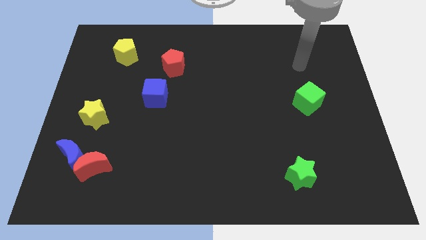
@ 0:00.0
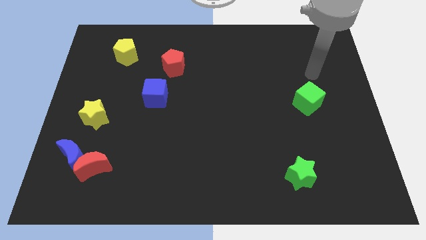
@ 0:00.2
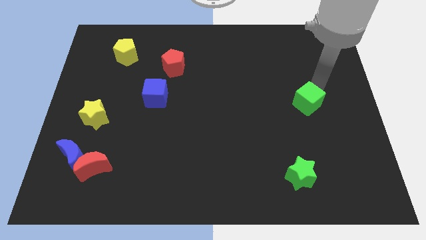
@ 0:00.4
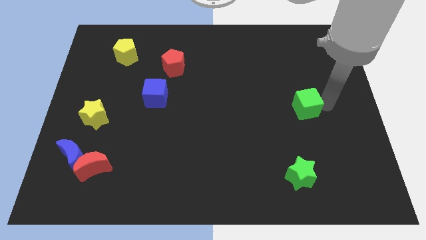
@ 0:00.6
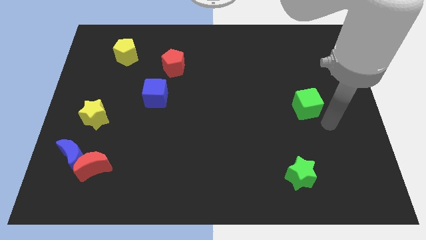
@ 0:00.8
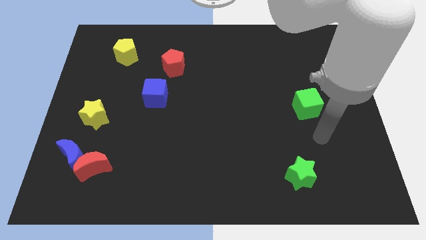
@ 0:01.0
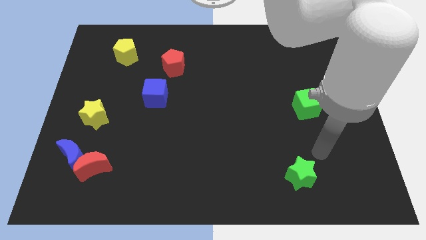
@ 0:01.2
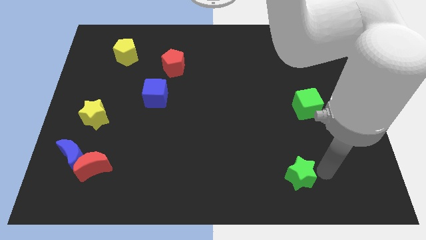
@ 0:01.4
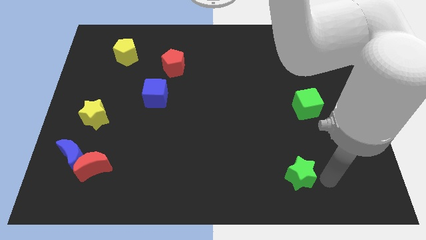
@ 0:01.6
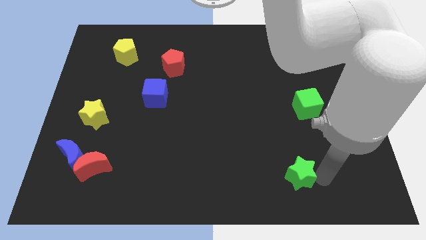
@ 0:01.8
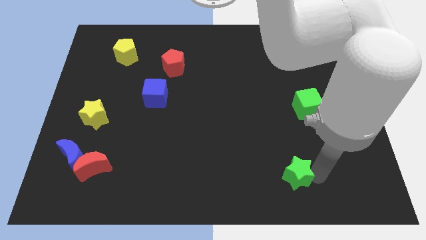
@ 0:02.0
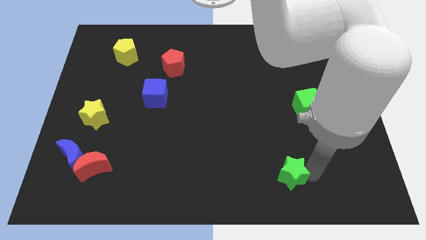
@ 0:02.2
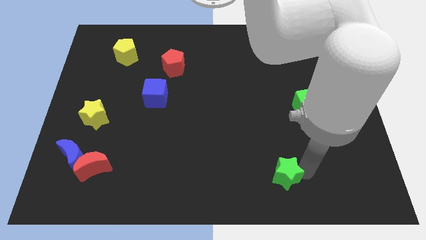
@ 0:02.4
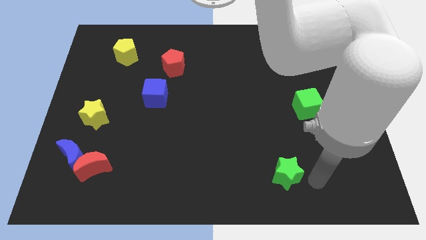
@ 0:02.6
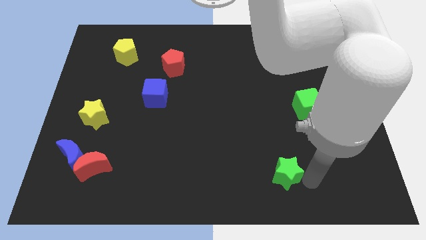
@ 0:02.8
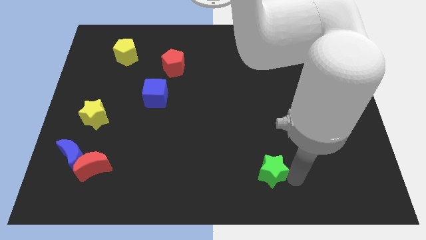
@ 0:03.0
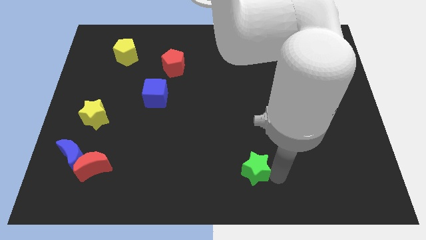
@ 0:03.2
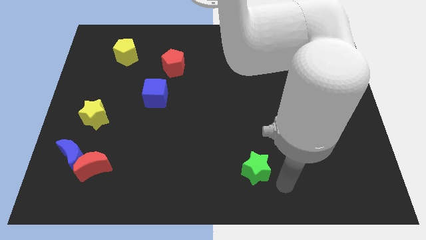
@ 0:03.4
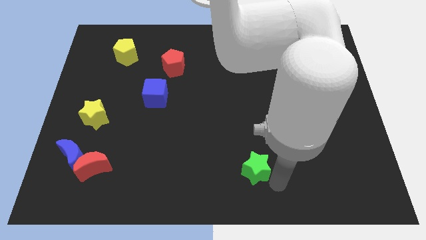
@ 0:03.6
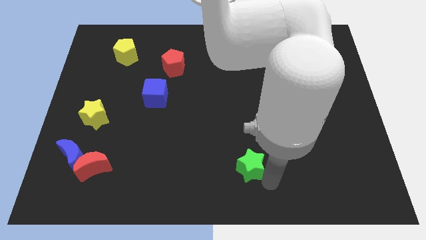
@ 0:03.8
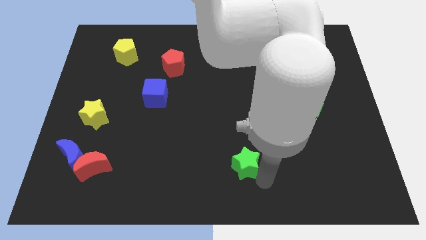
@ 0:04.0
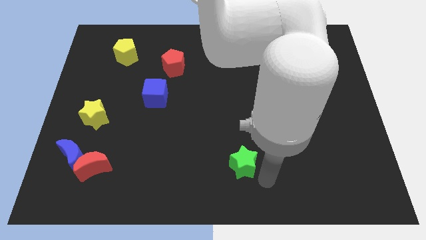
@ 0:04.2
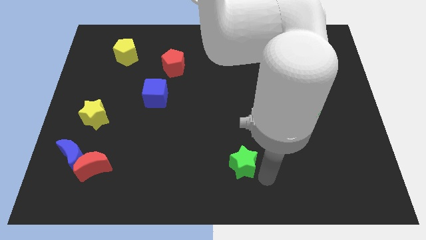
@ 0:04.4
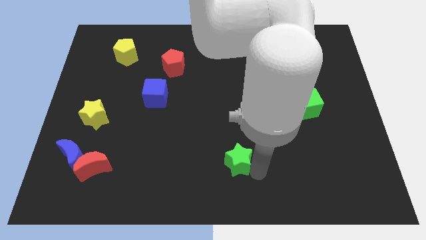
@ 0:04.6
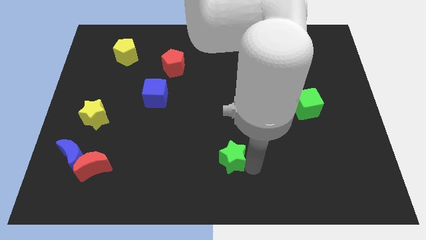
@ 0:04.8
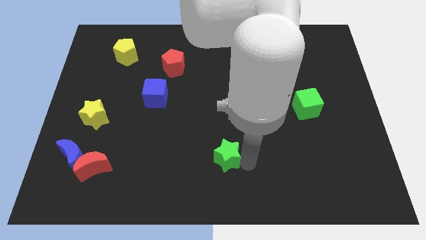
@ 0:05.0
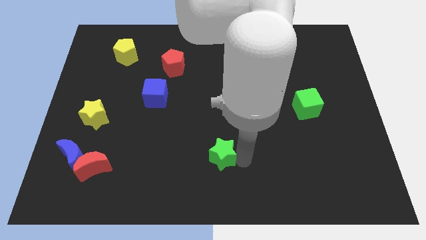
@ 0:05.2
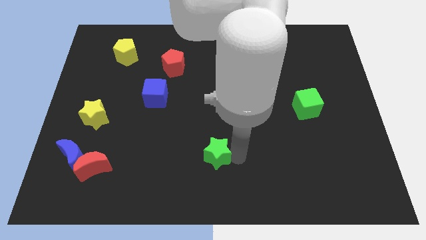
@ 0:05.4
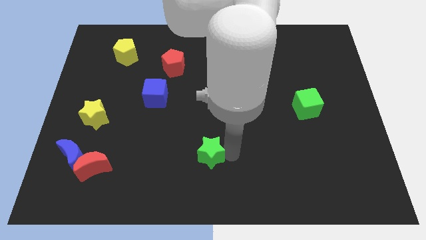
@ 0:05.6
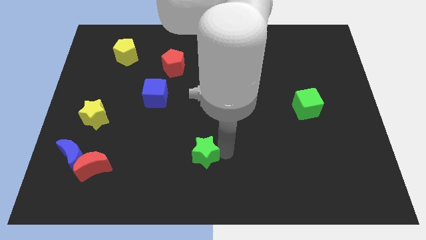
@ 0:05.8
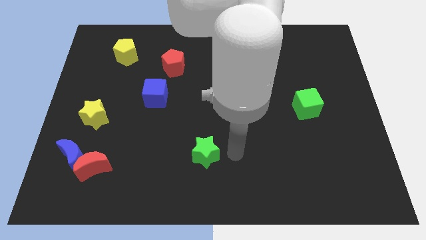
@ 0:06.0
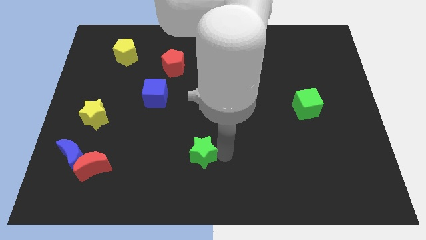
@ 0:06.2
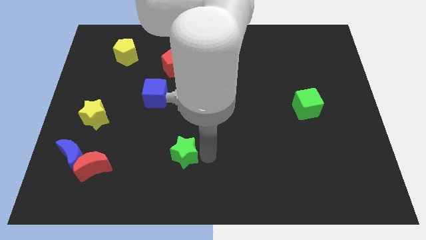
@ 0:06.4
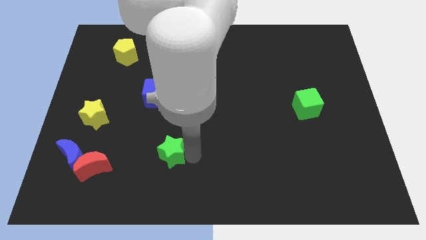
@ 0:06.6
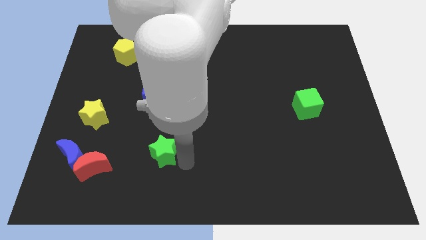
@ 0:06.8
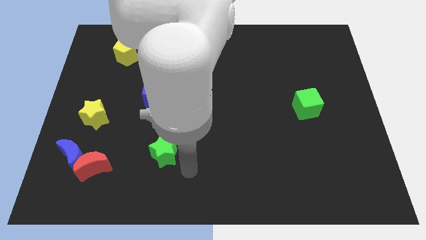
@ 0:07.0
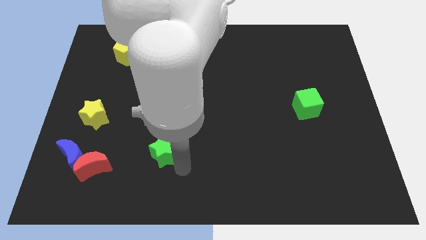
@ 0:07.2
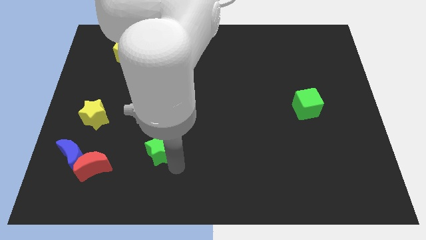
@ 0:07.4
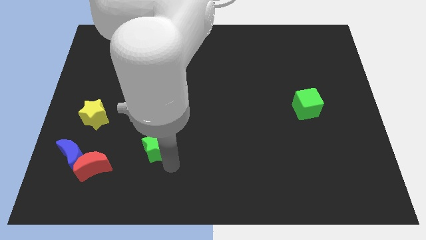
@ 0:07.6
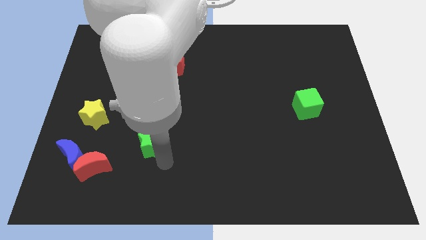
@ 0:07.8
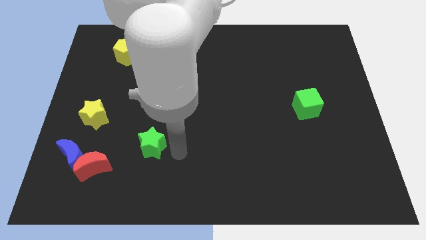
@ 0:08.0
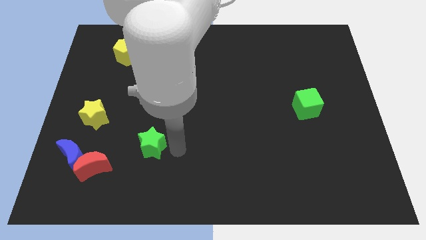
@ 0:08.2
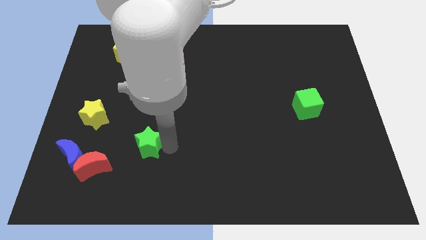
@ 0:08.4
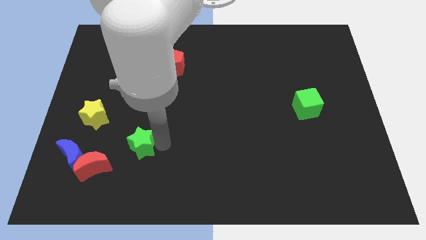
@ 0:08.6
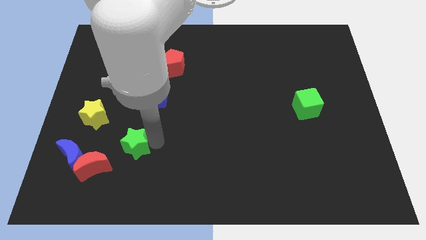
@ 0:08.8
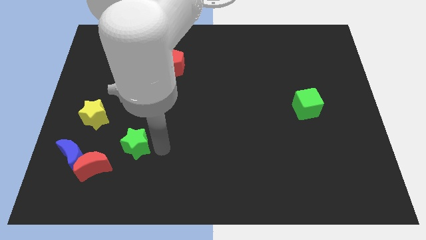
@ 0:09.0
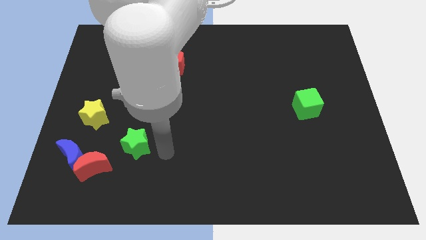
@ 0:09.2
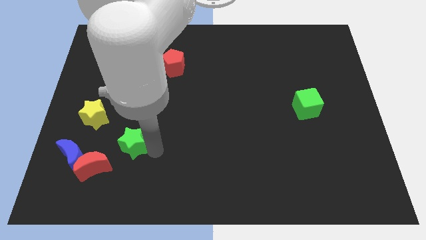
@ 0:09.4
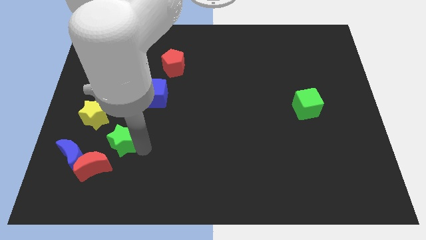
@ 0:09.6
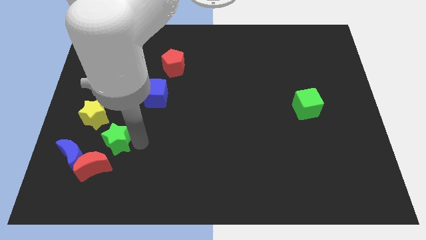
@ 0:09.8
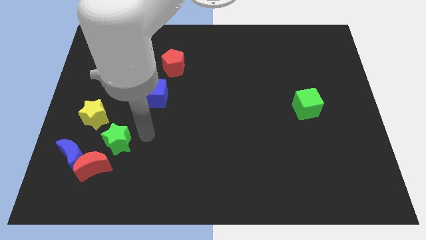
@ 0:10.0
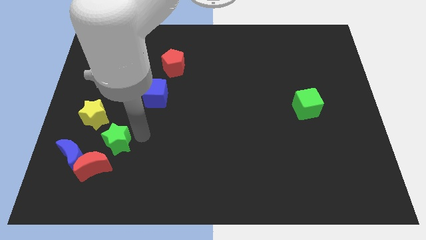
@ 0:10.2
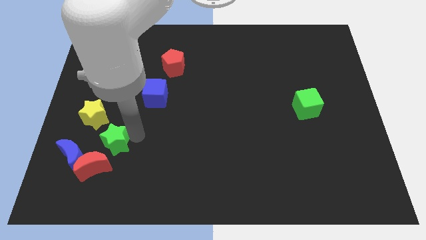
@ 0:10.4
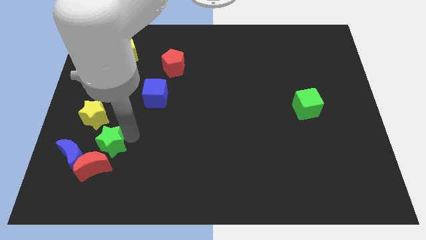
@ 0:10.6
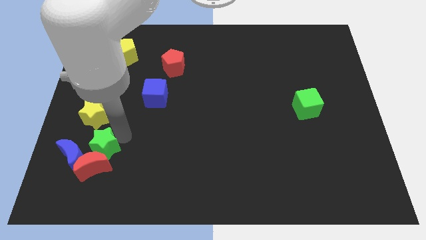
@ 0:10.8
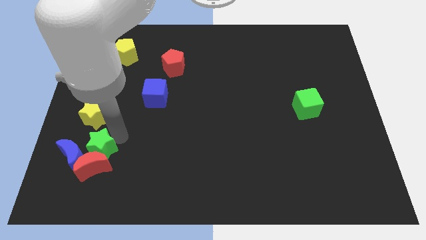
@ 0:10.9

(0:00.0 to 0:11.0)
put the green star close to the blue moon

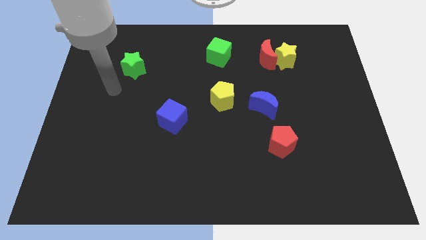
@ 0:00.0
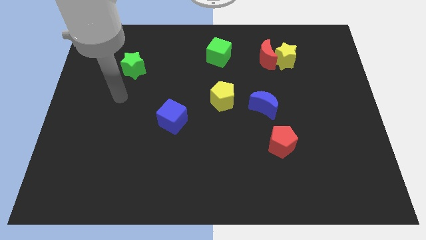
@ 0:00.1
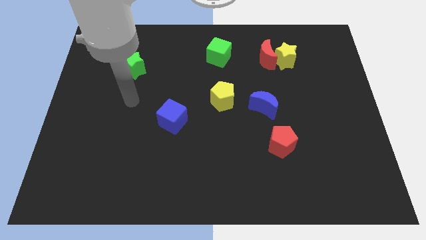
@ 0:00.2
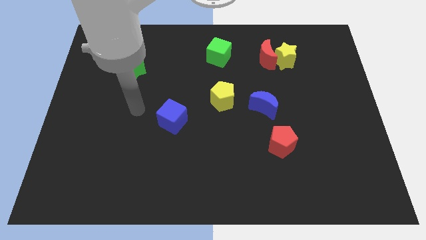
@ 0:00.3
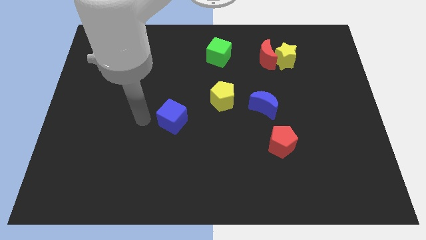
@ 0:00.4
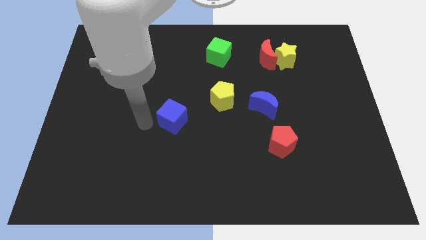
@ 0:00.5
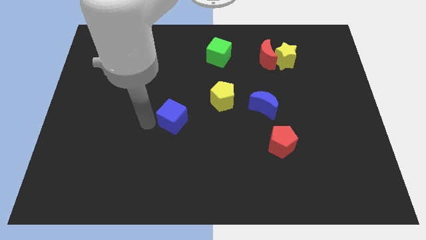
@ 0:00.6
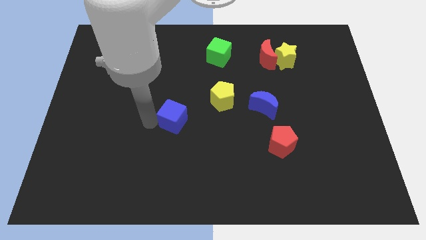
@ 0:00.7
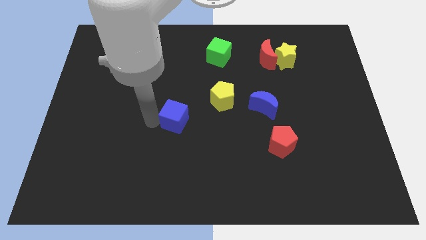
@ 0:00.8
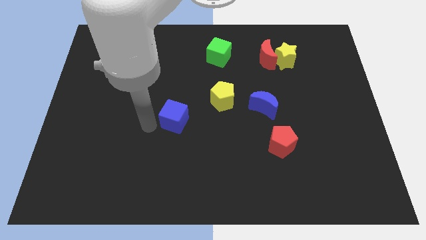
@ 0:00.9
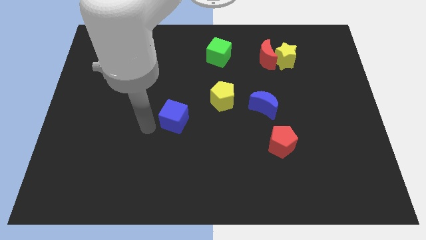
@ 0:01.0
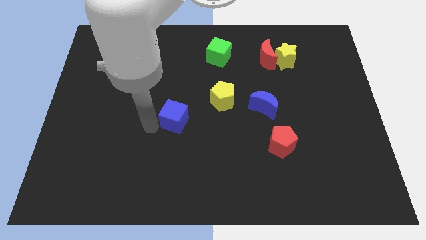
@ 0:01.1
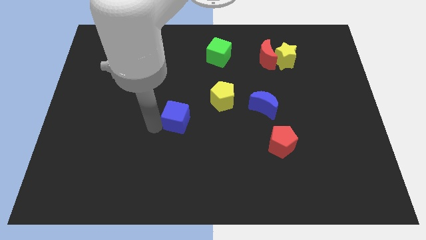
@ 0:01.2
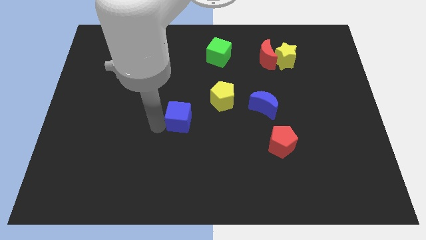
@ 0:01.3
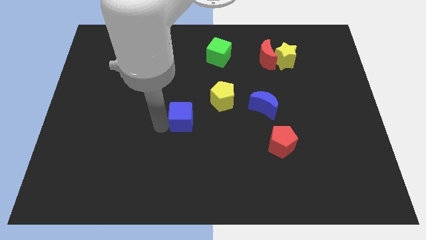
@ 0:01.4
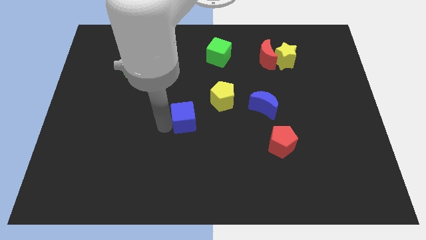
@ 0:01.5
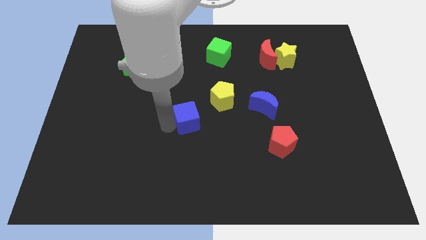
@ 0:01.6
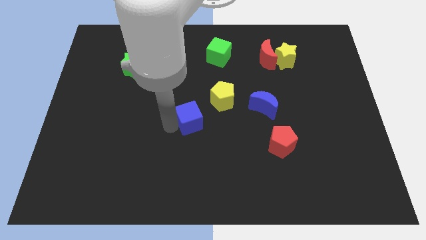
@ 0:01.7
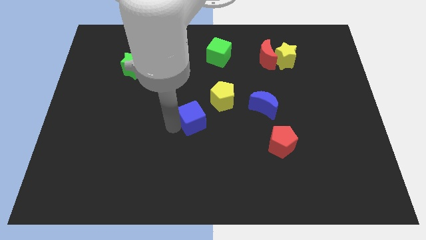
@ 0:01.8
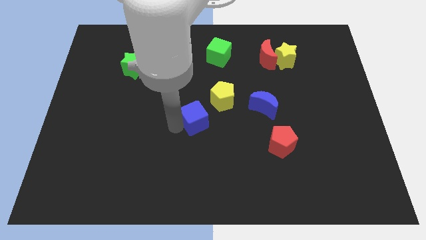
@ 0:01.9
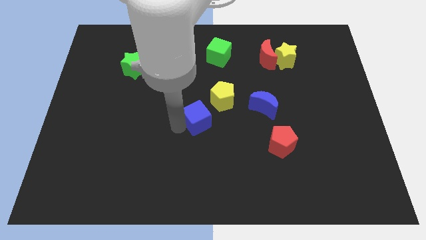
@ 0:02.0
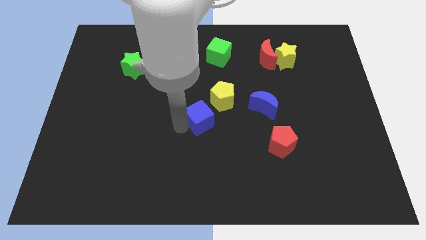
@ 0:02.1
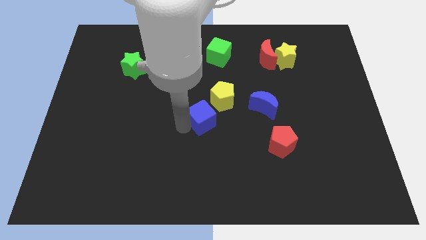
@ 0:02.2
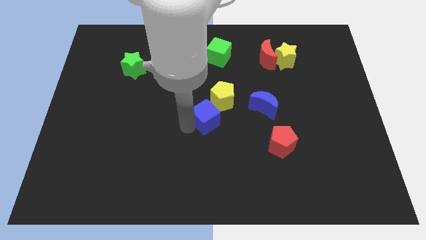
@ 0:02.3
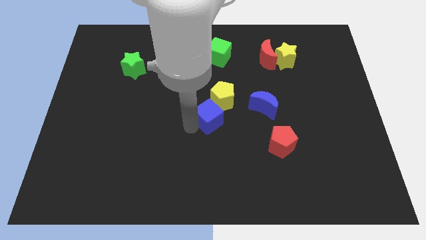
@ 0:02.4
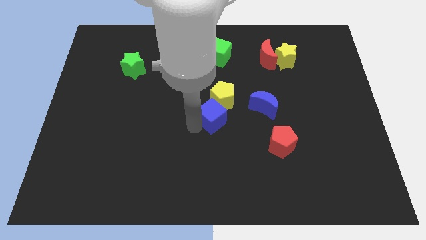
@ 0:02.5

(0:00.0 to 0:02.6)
move the blue cube close to the yellow pentagon
